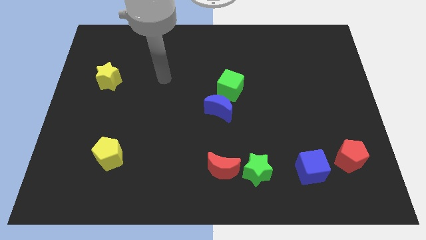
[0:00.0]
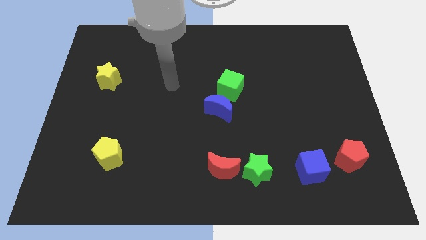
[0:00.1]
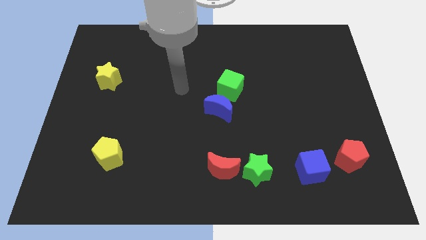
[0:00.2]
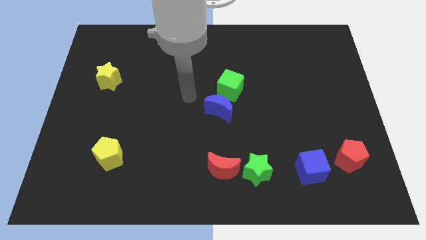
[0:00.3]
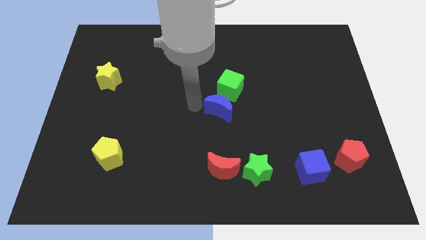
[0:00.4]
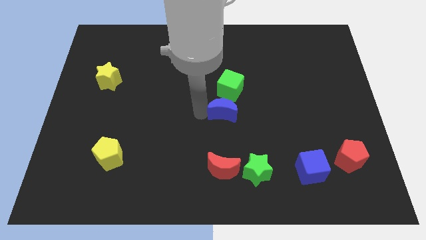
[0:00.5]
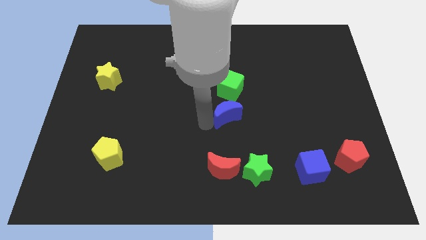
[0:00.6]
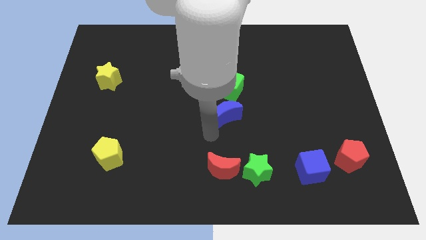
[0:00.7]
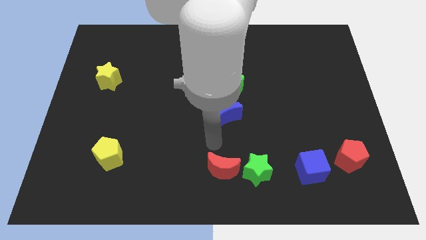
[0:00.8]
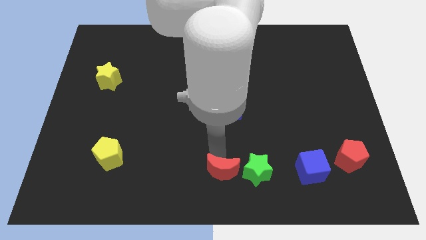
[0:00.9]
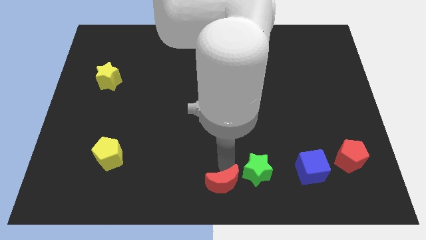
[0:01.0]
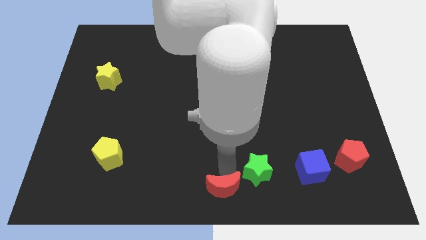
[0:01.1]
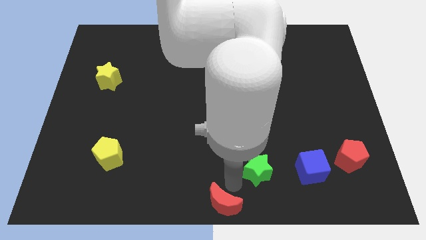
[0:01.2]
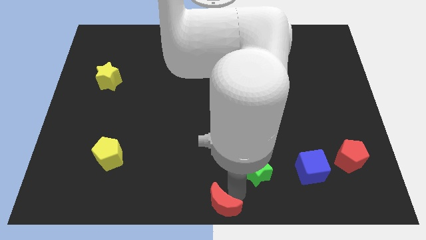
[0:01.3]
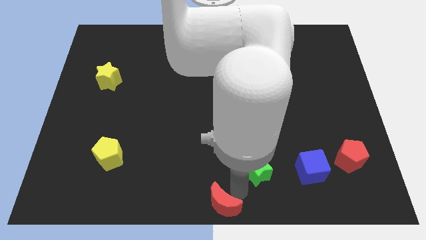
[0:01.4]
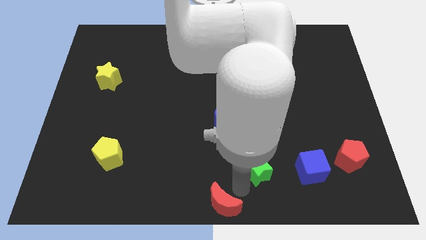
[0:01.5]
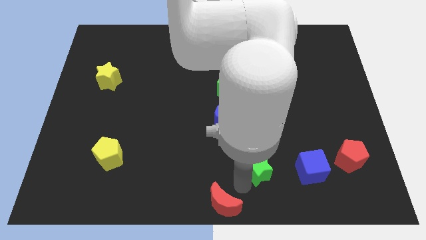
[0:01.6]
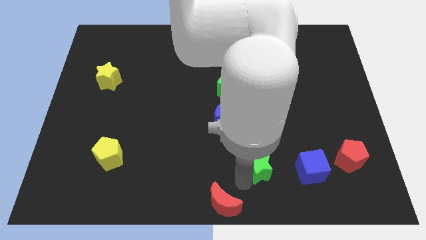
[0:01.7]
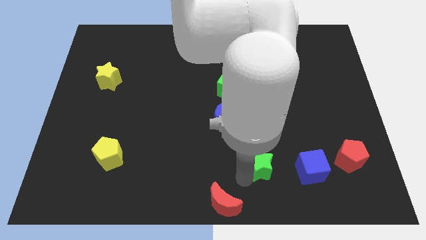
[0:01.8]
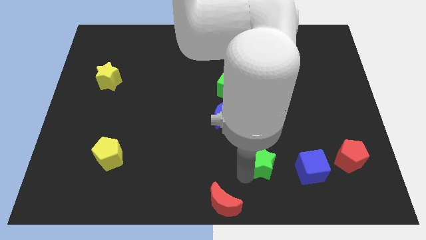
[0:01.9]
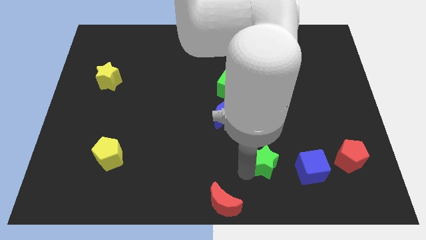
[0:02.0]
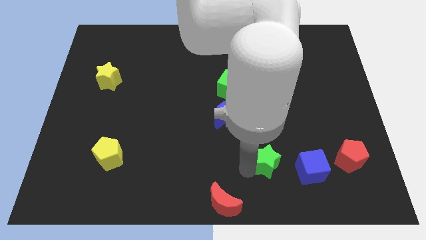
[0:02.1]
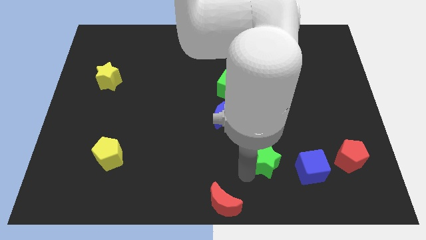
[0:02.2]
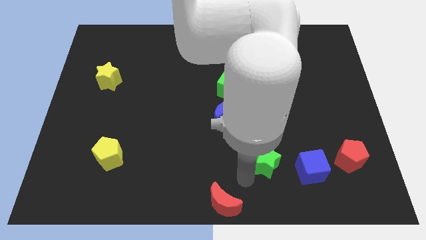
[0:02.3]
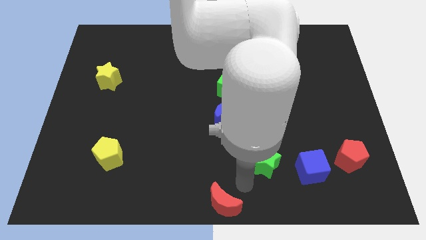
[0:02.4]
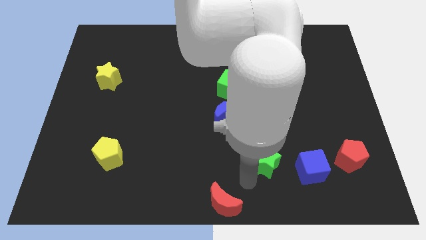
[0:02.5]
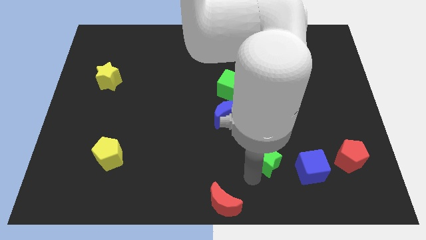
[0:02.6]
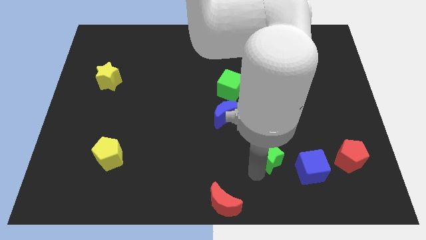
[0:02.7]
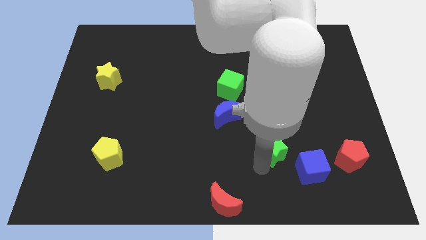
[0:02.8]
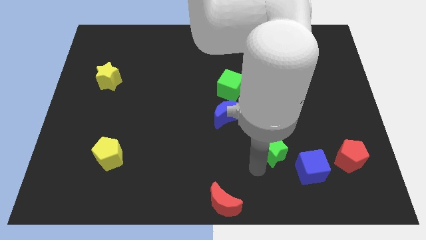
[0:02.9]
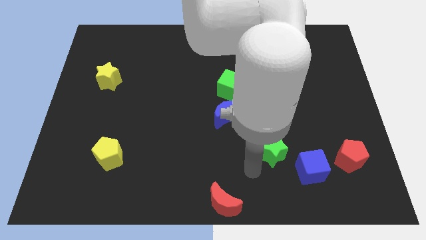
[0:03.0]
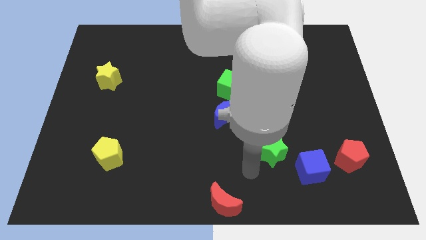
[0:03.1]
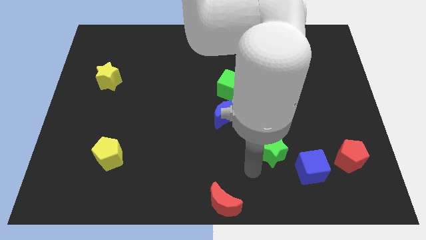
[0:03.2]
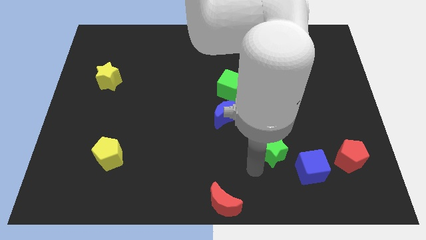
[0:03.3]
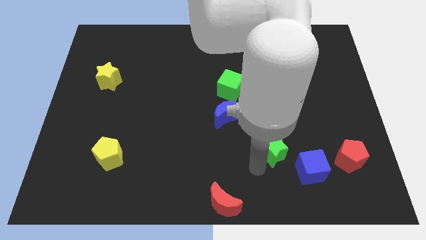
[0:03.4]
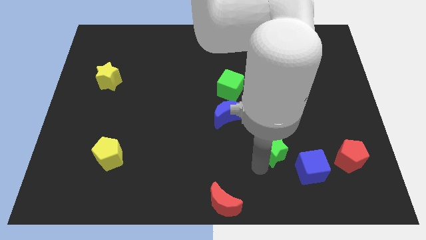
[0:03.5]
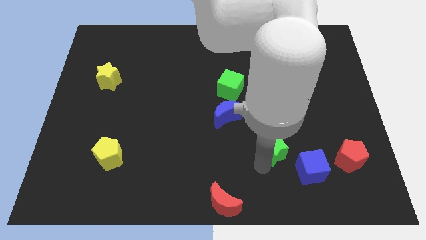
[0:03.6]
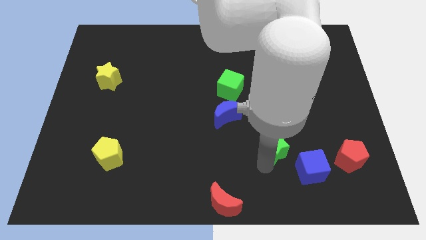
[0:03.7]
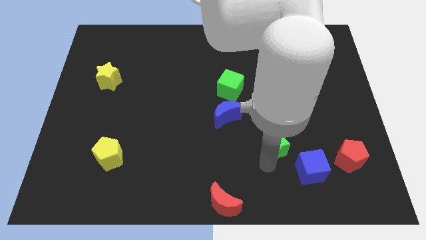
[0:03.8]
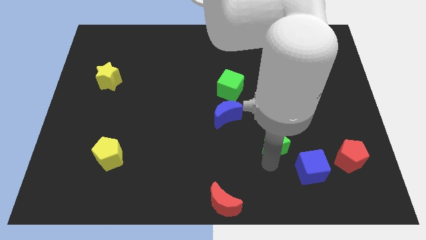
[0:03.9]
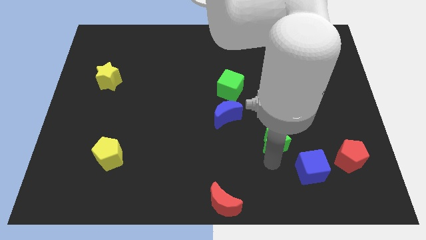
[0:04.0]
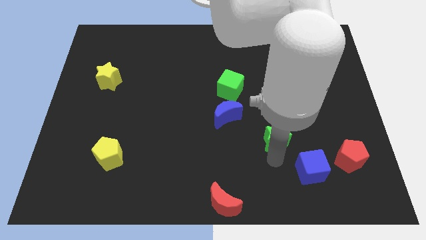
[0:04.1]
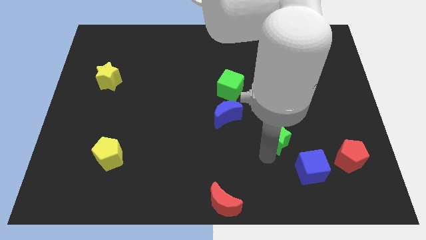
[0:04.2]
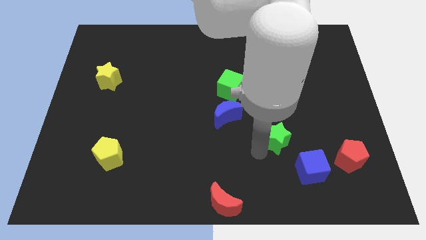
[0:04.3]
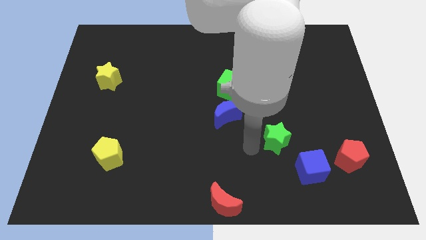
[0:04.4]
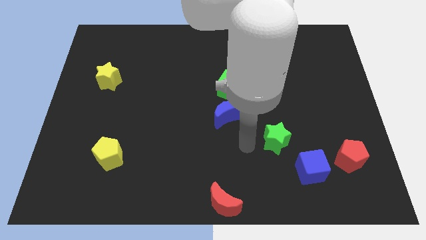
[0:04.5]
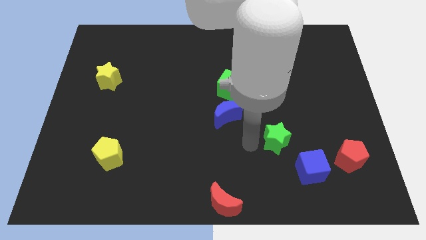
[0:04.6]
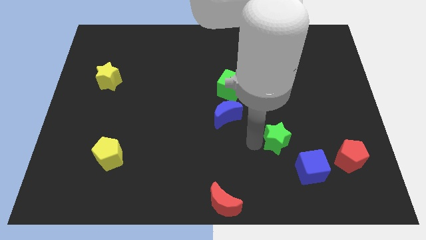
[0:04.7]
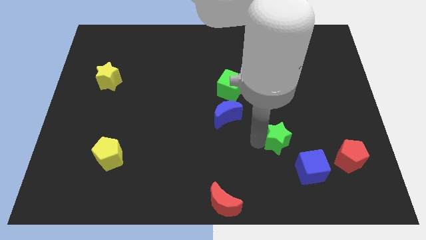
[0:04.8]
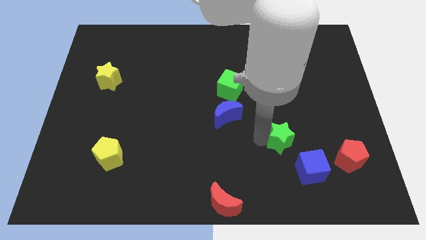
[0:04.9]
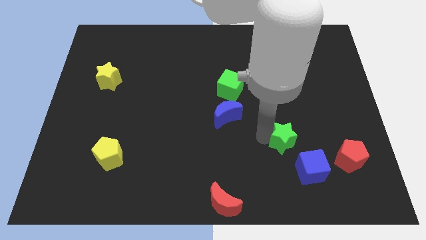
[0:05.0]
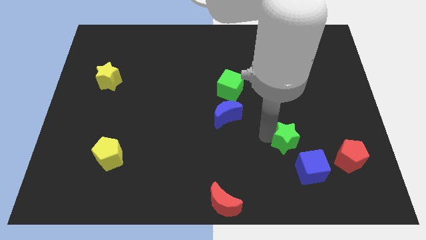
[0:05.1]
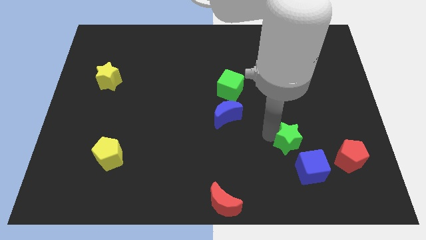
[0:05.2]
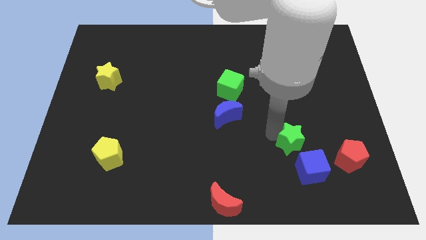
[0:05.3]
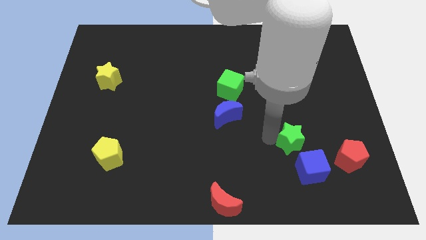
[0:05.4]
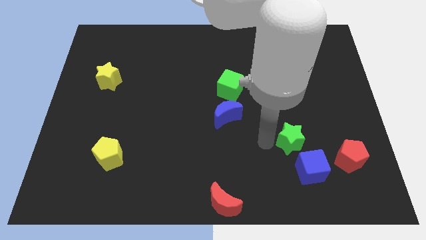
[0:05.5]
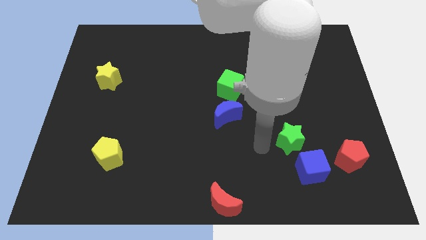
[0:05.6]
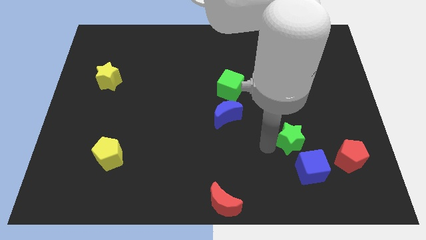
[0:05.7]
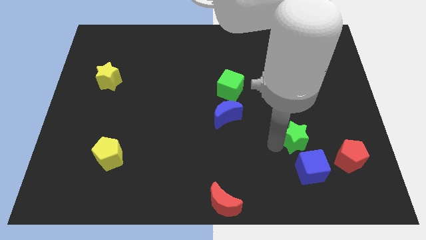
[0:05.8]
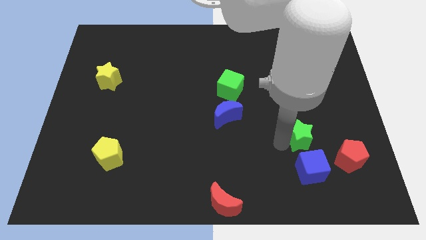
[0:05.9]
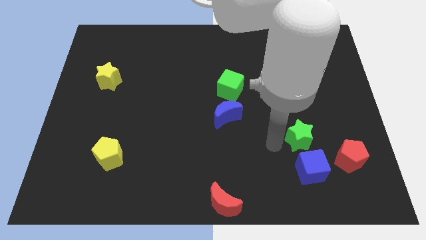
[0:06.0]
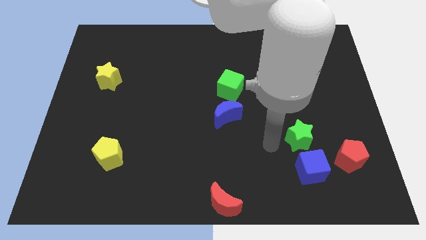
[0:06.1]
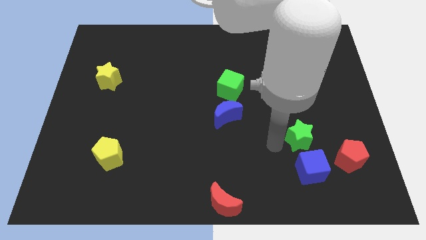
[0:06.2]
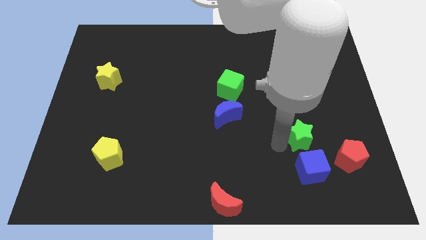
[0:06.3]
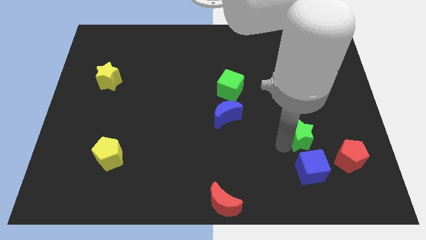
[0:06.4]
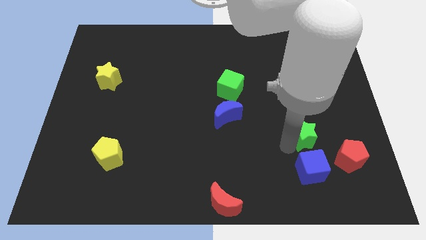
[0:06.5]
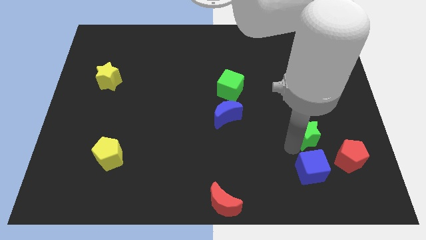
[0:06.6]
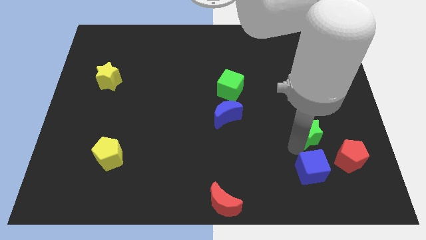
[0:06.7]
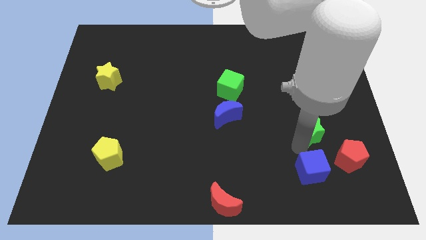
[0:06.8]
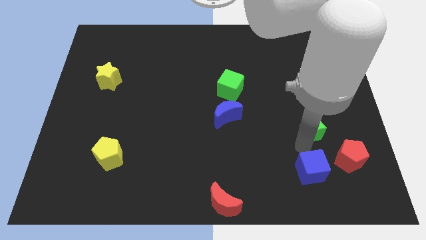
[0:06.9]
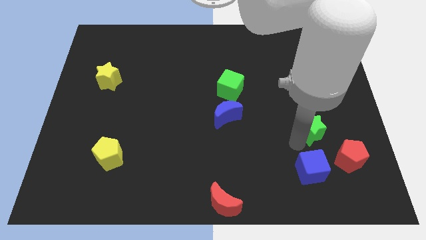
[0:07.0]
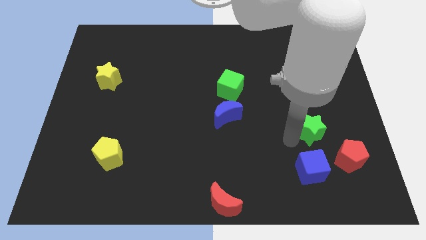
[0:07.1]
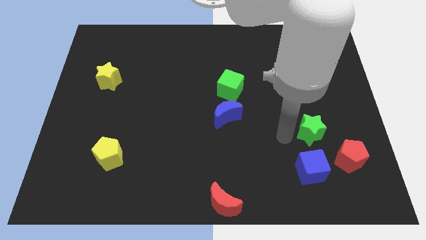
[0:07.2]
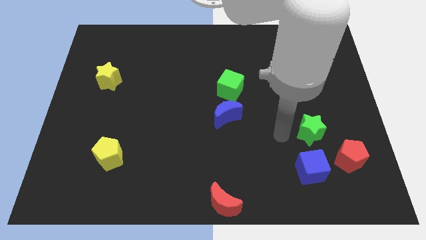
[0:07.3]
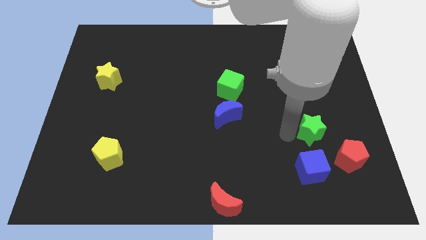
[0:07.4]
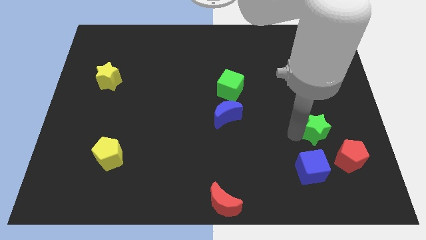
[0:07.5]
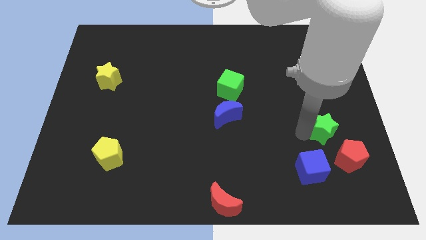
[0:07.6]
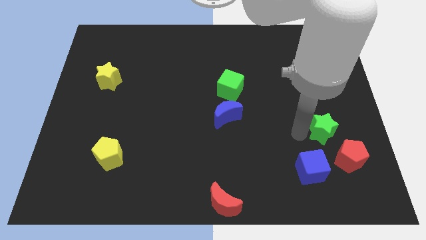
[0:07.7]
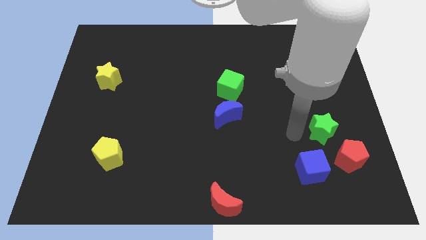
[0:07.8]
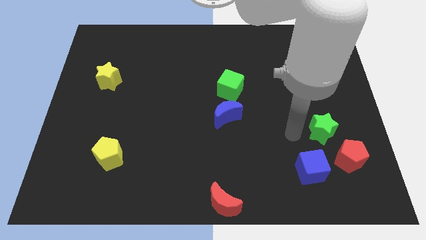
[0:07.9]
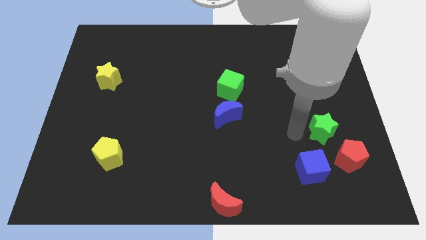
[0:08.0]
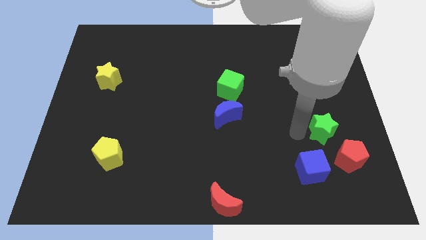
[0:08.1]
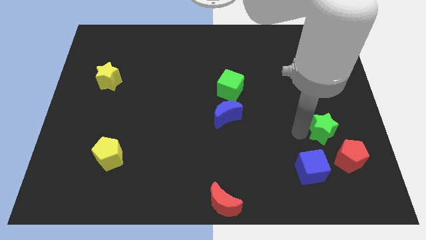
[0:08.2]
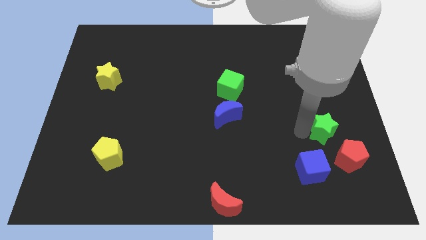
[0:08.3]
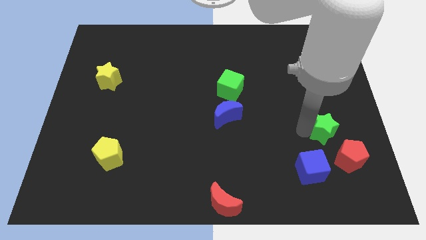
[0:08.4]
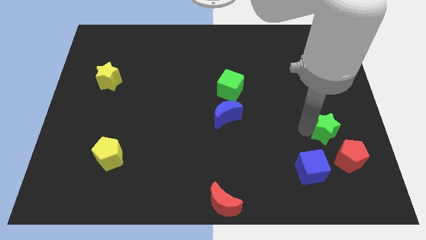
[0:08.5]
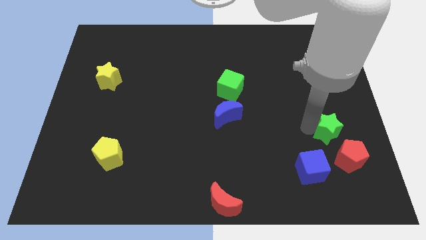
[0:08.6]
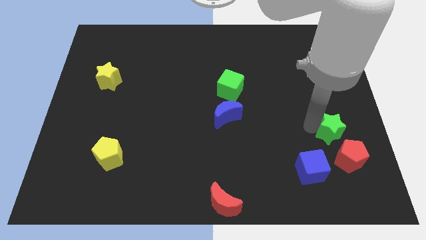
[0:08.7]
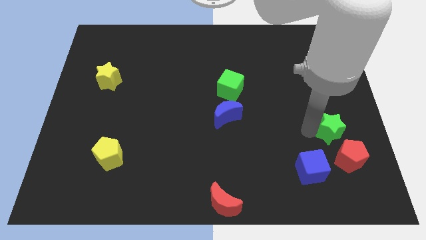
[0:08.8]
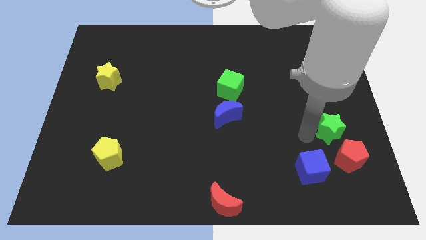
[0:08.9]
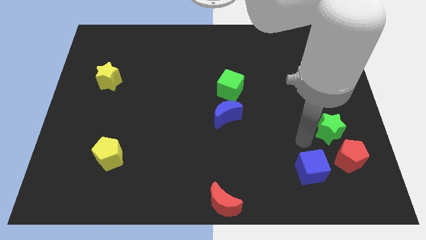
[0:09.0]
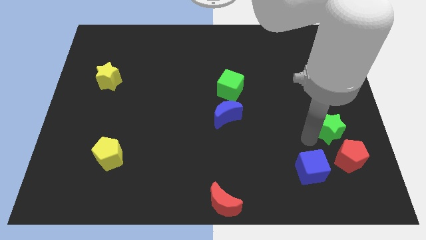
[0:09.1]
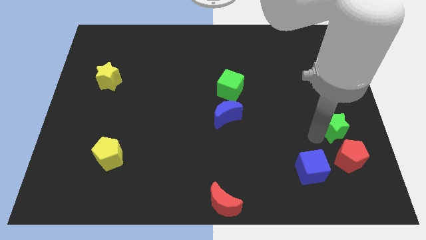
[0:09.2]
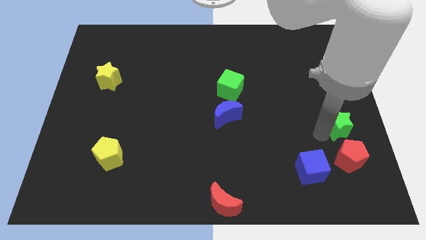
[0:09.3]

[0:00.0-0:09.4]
push the green star to the center right
